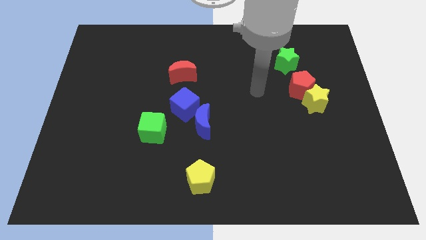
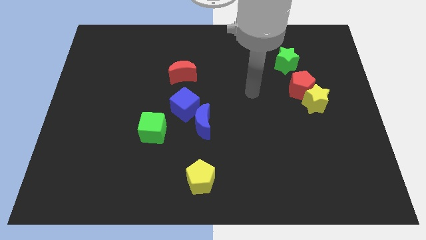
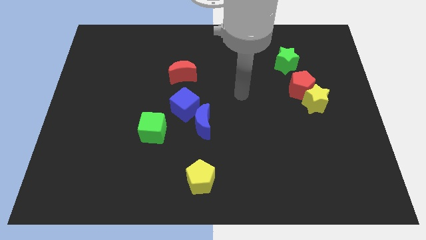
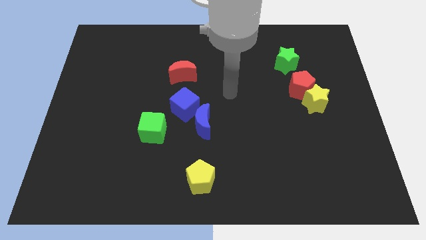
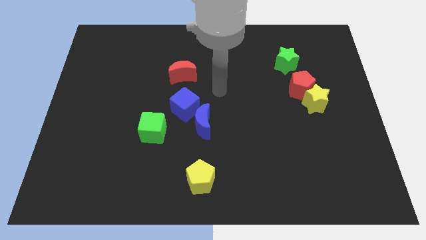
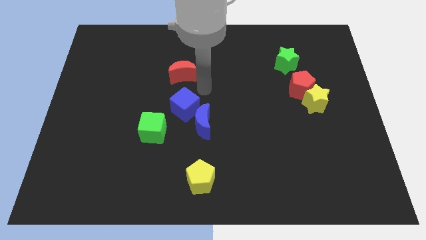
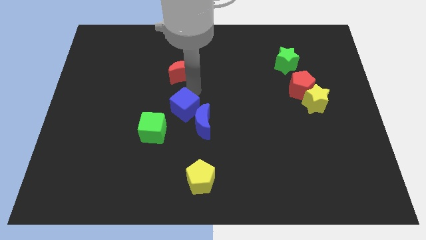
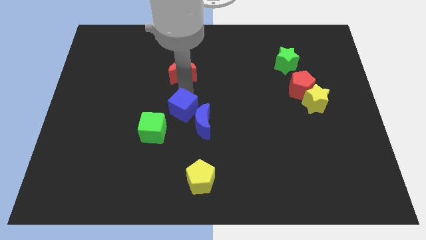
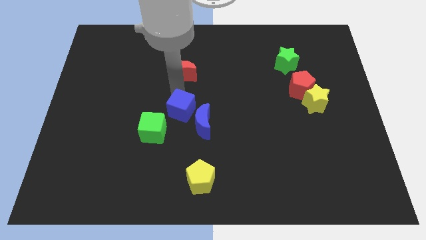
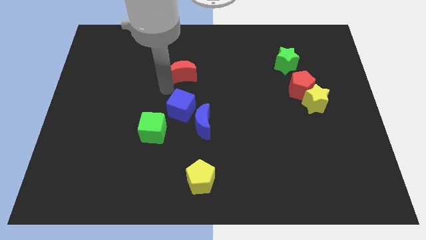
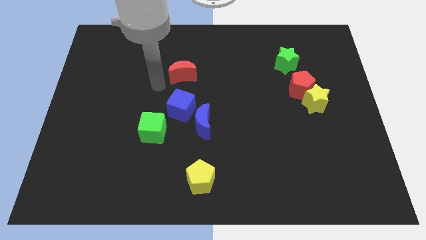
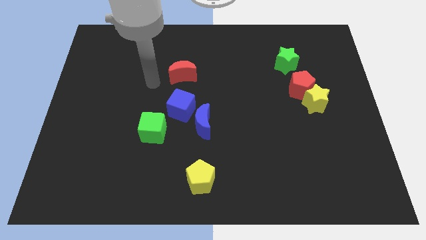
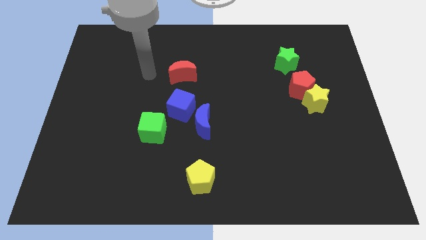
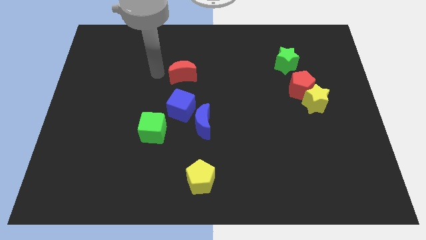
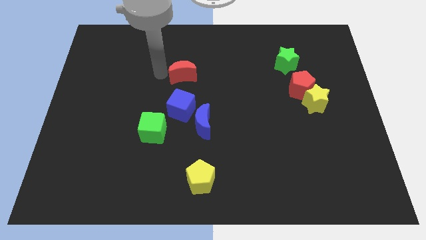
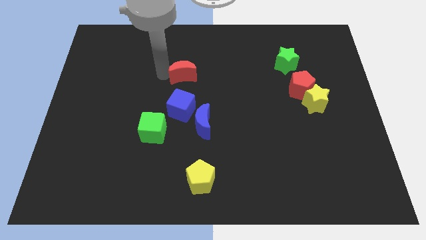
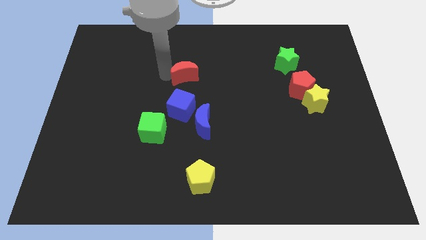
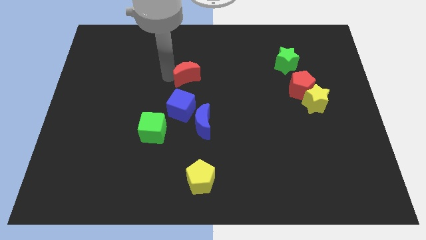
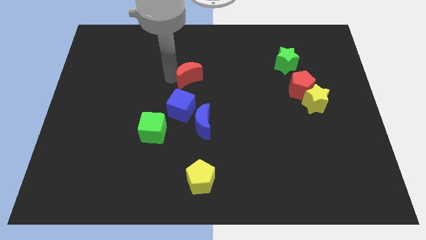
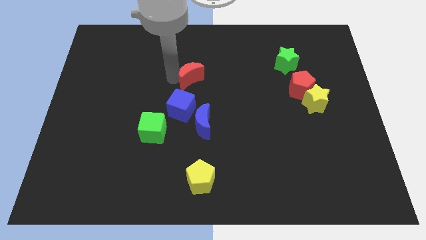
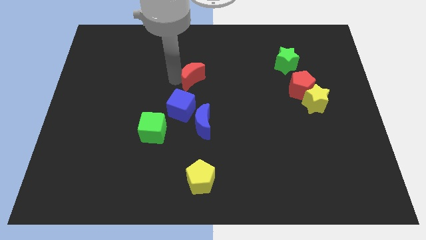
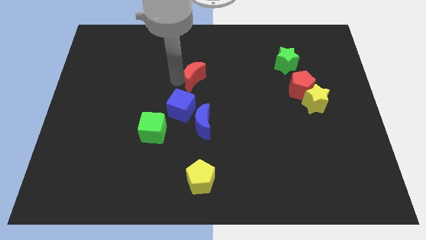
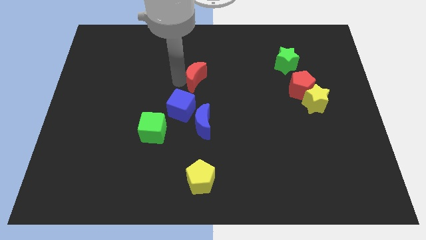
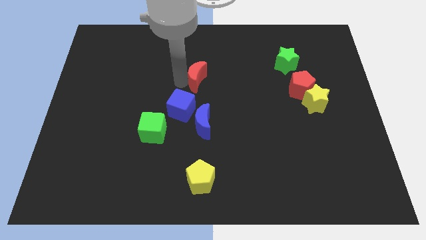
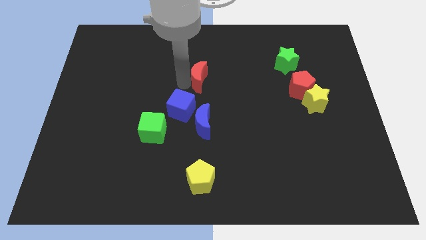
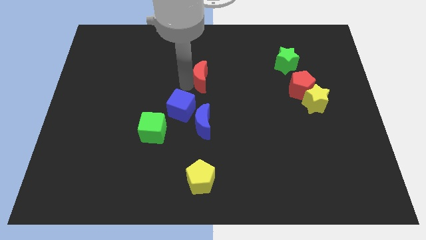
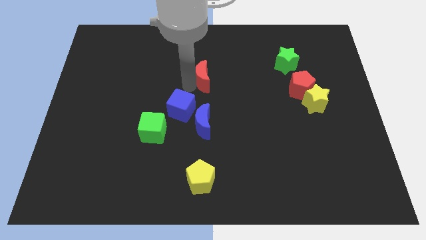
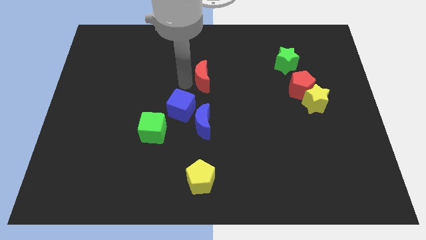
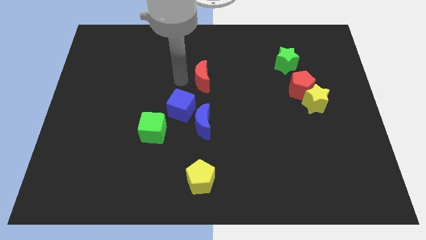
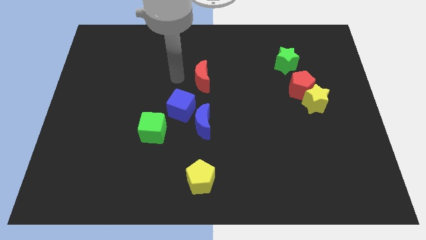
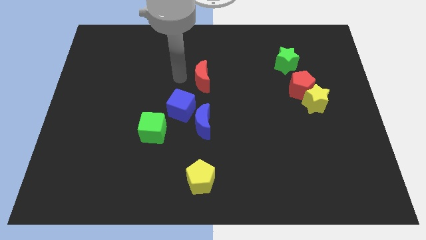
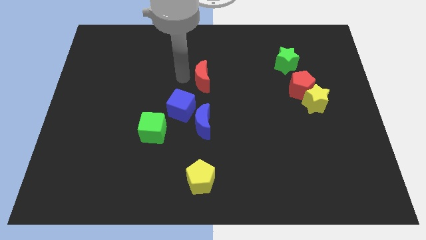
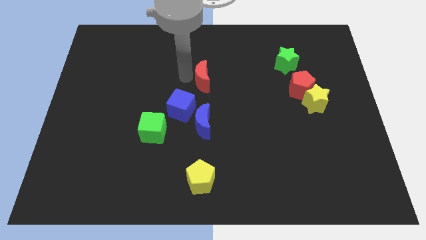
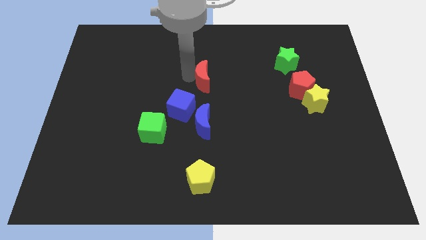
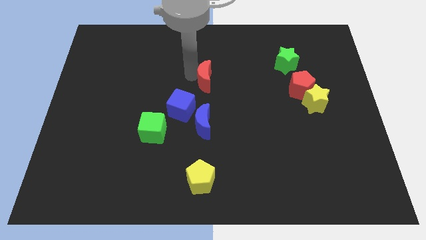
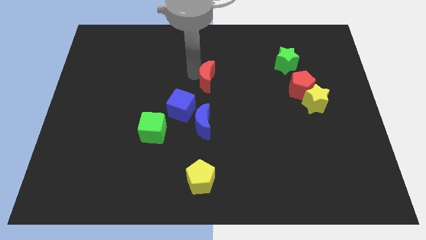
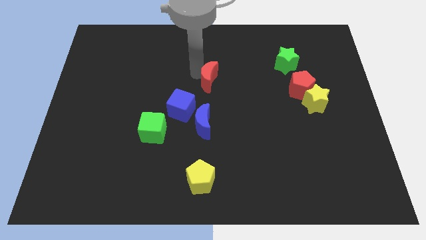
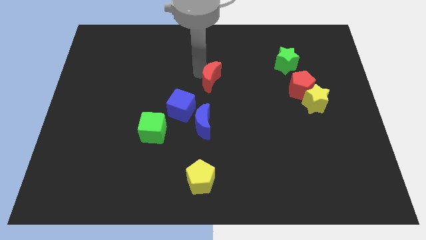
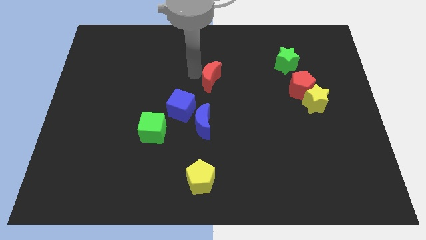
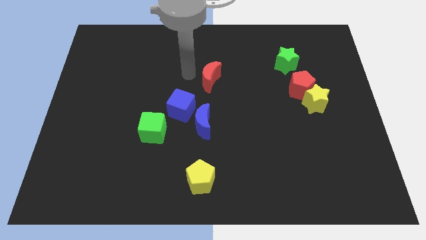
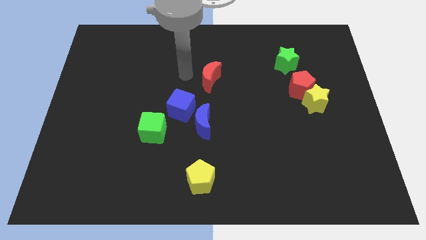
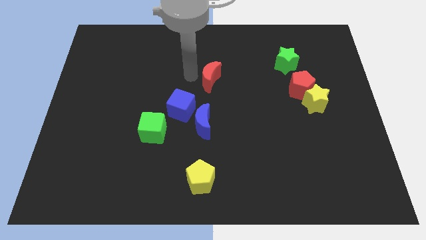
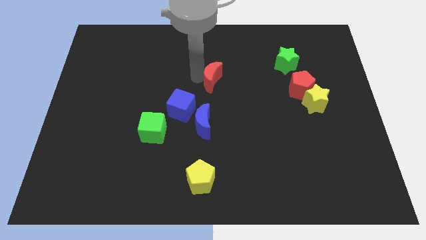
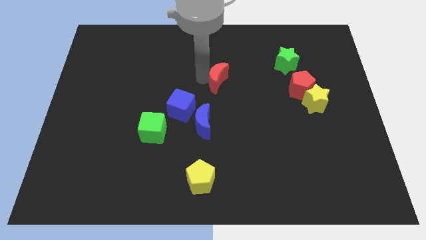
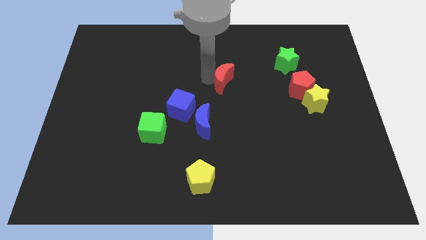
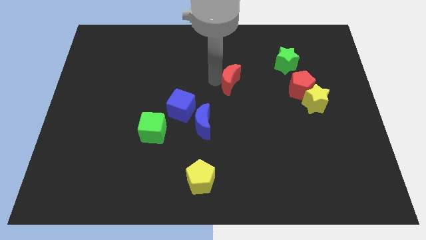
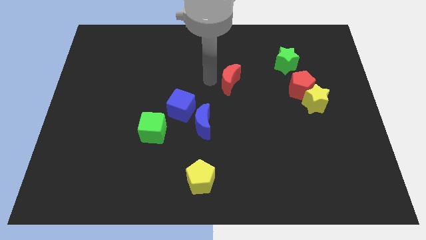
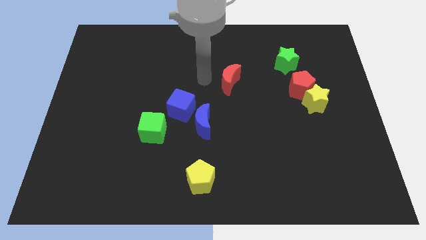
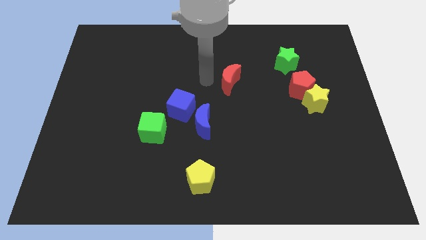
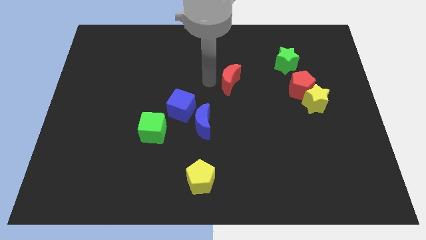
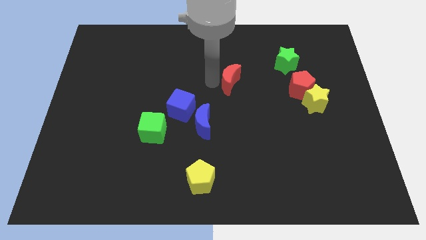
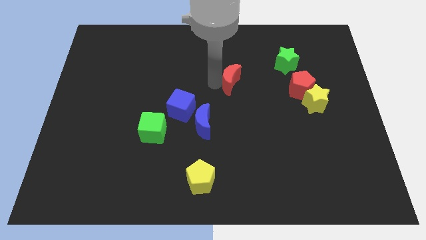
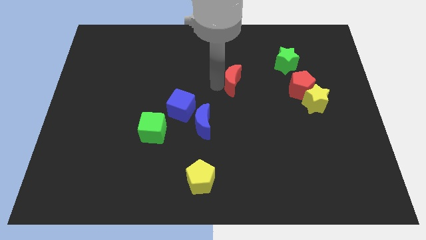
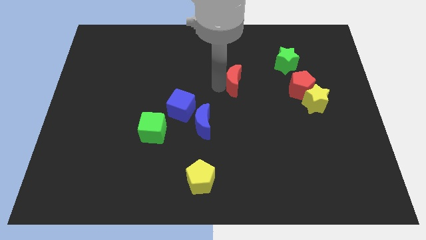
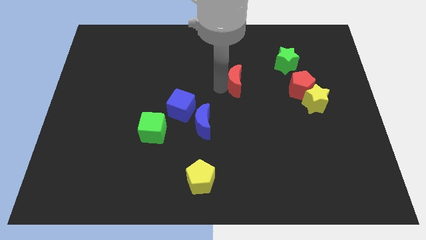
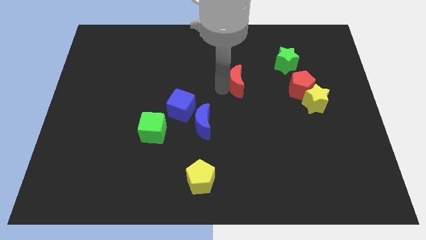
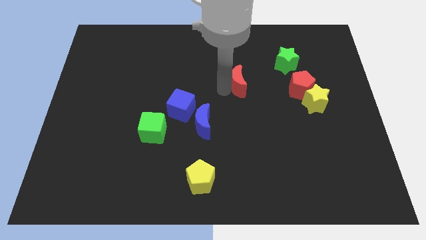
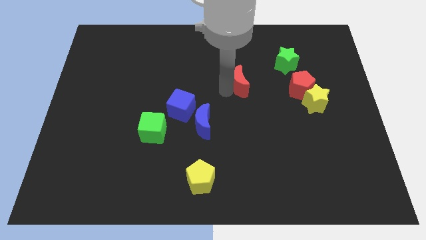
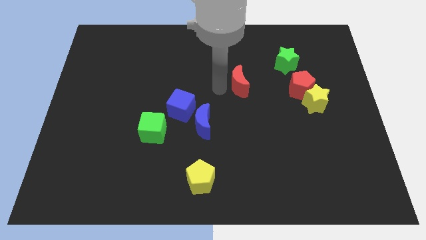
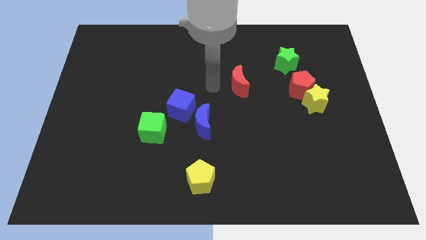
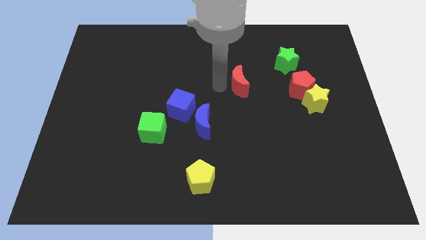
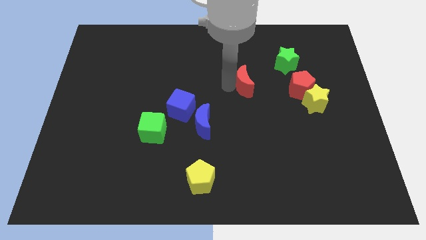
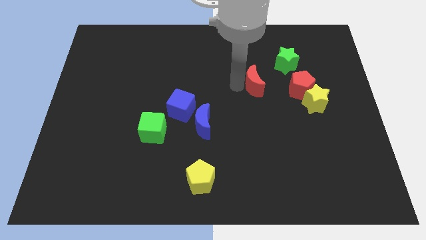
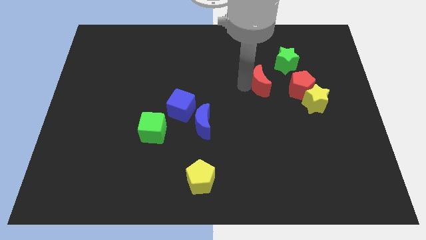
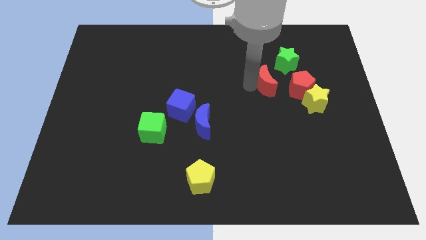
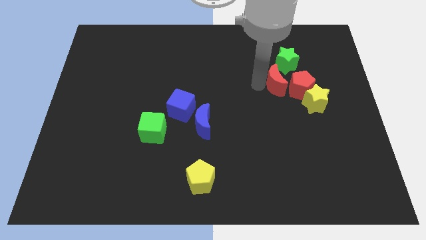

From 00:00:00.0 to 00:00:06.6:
slide the red moon towards the red pentagon

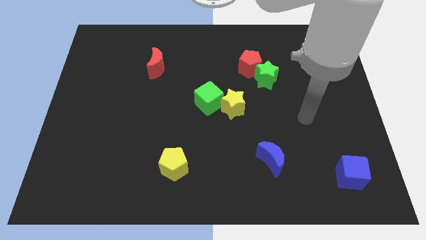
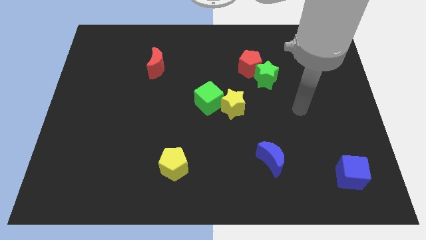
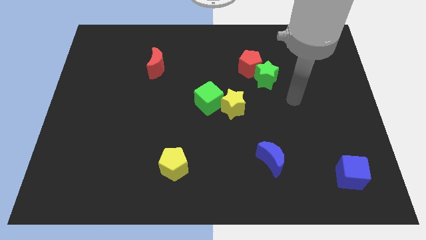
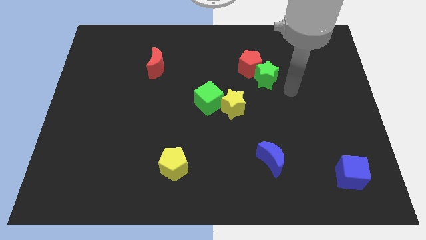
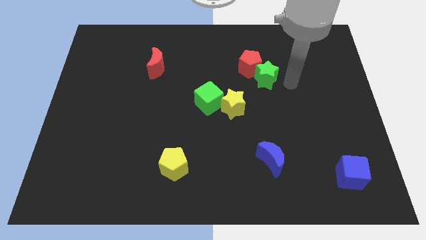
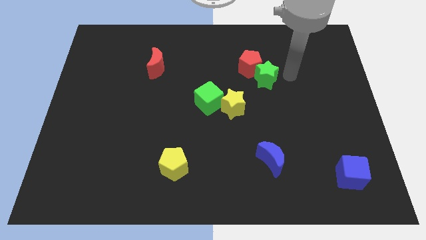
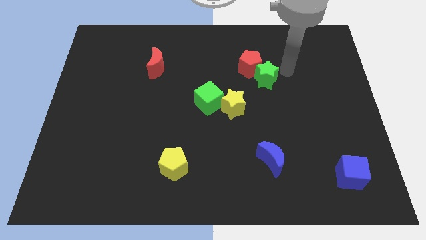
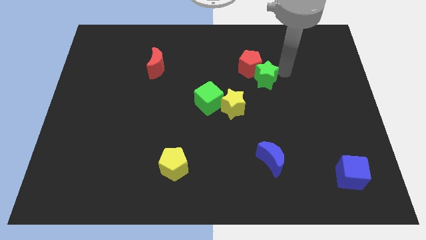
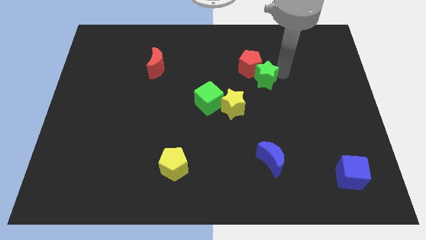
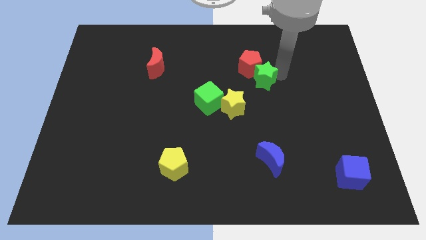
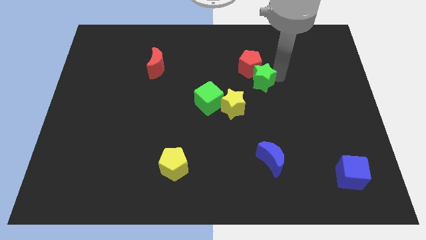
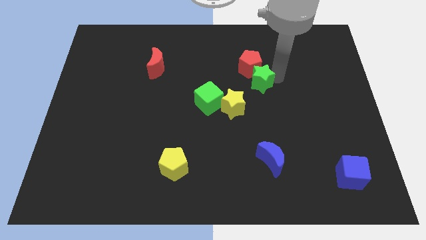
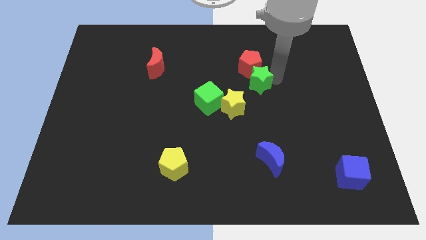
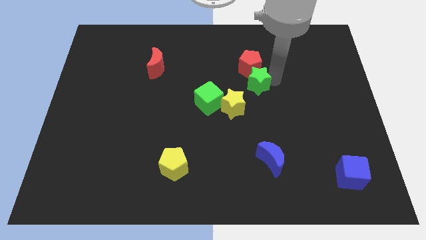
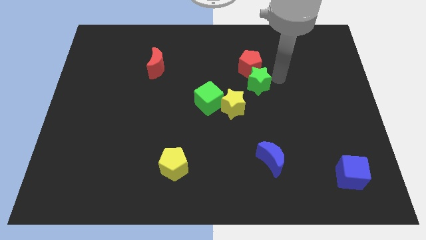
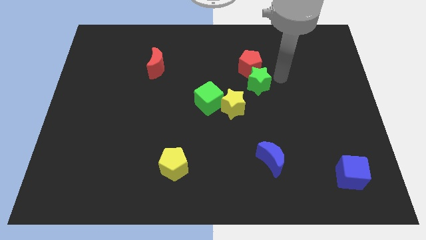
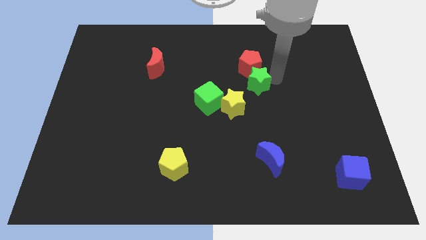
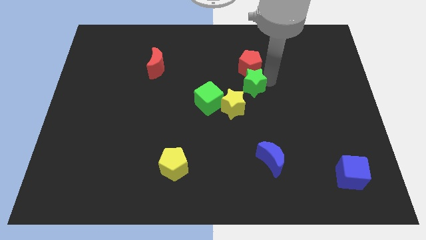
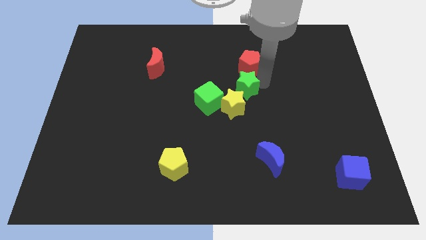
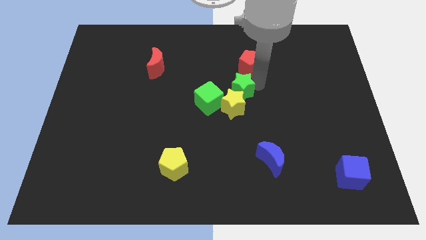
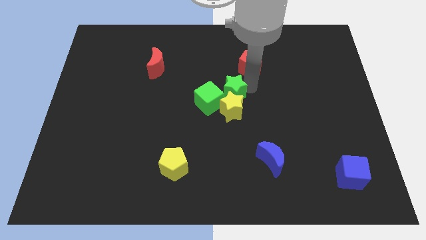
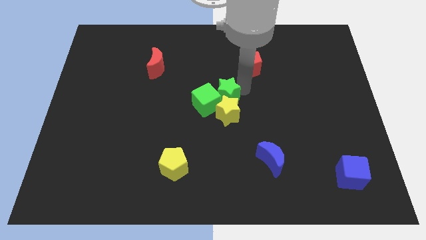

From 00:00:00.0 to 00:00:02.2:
move the green star towards the green cube
